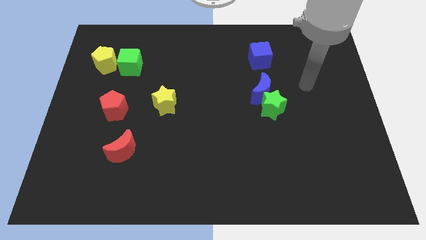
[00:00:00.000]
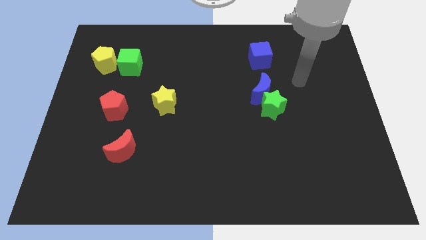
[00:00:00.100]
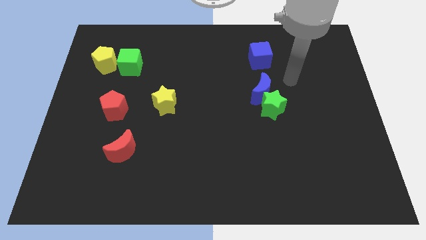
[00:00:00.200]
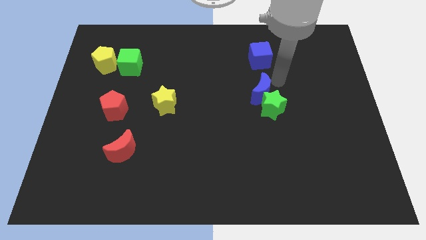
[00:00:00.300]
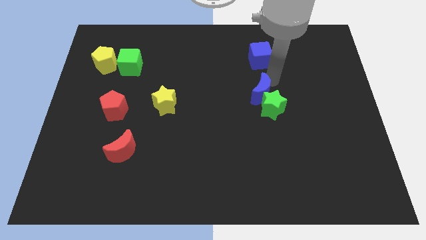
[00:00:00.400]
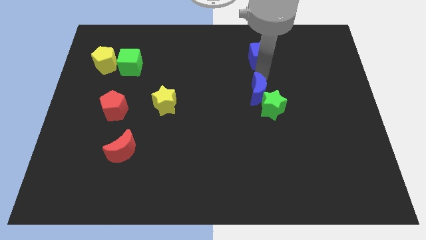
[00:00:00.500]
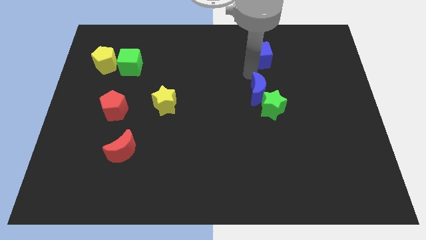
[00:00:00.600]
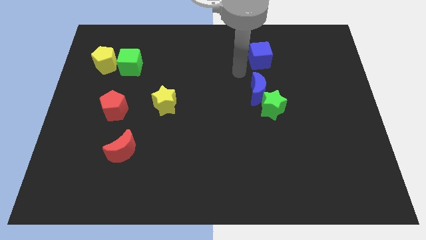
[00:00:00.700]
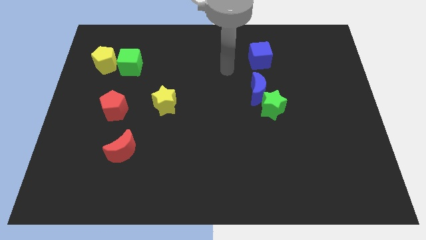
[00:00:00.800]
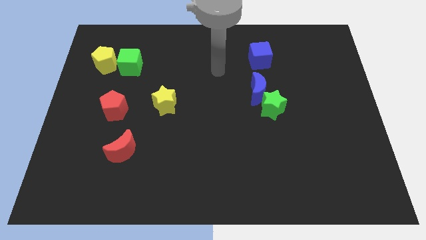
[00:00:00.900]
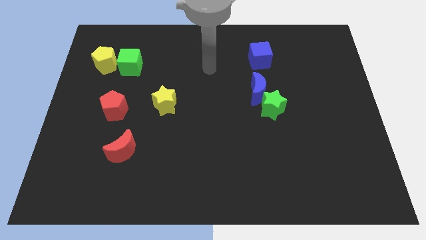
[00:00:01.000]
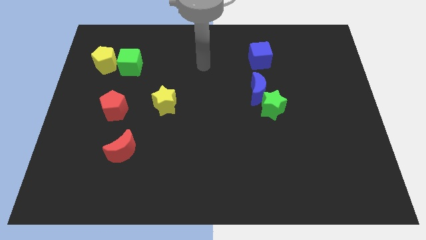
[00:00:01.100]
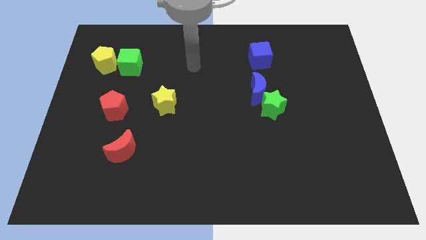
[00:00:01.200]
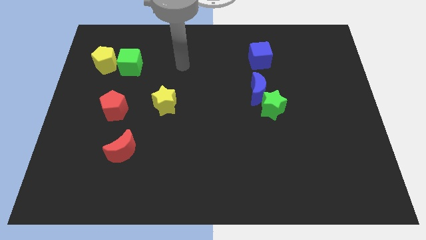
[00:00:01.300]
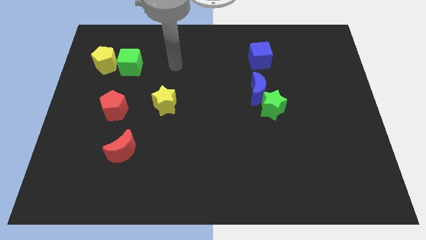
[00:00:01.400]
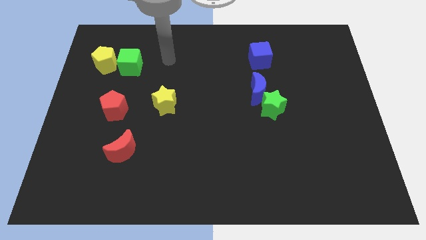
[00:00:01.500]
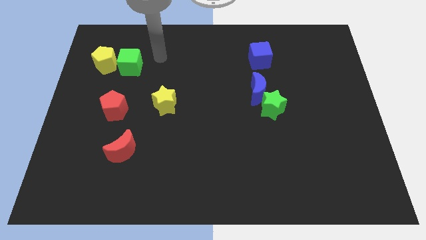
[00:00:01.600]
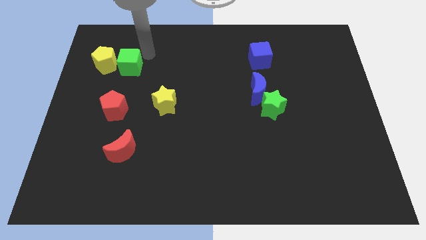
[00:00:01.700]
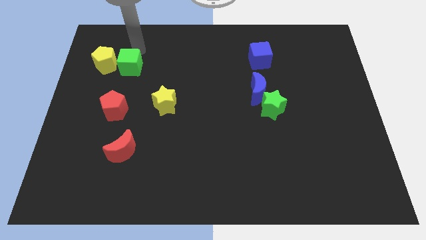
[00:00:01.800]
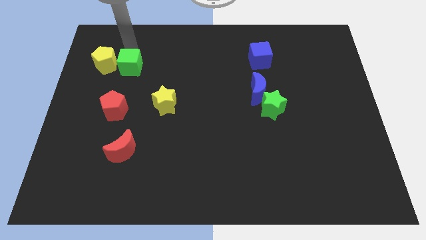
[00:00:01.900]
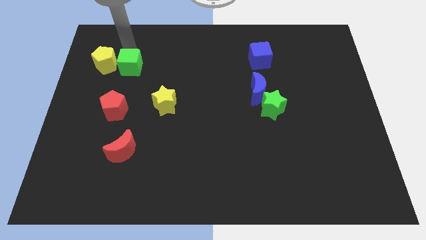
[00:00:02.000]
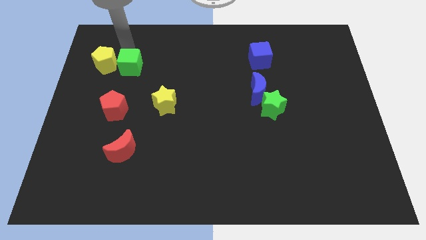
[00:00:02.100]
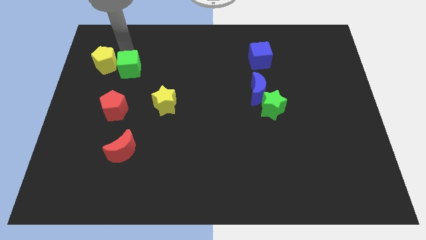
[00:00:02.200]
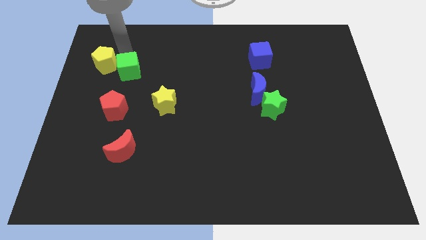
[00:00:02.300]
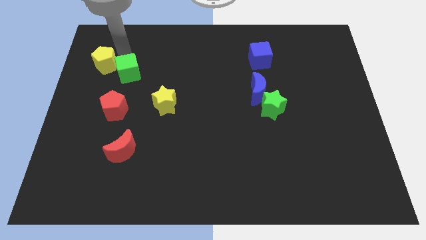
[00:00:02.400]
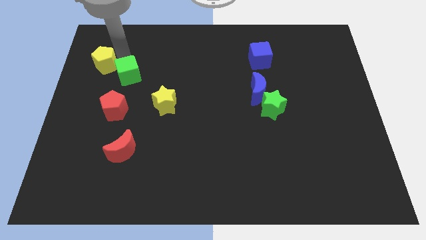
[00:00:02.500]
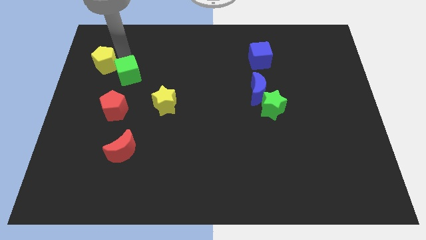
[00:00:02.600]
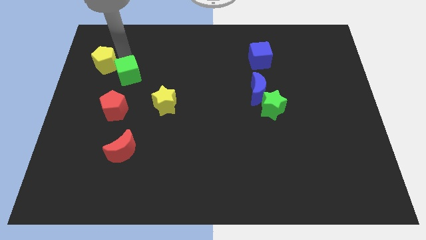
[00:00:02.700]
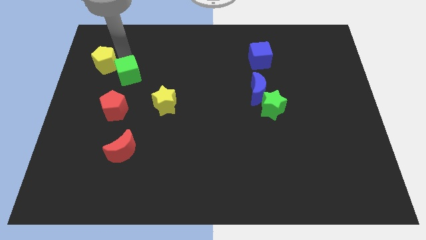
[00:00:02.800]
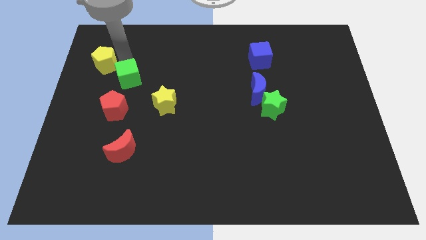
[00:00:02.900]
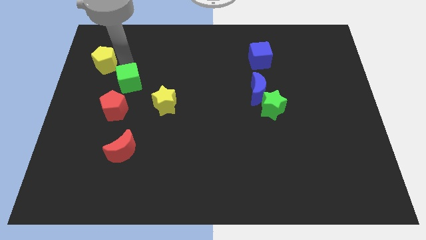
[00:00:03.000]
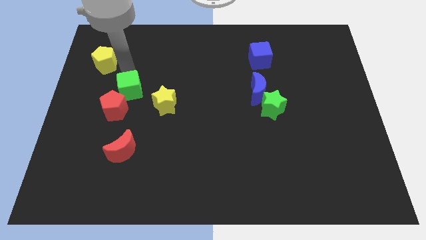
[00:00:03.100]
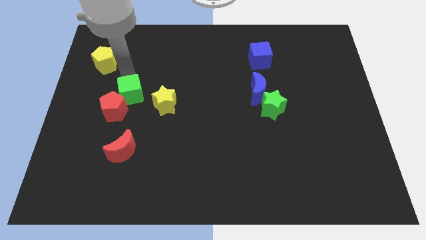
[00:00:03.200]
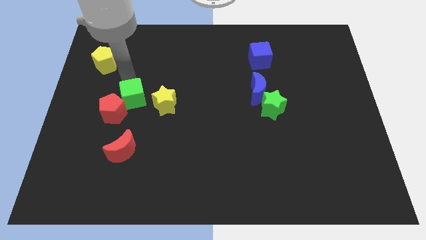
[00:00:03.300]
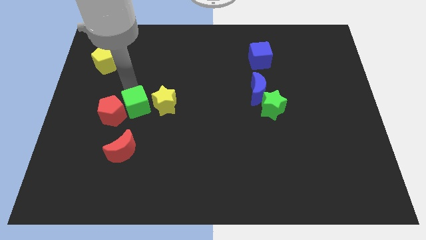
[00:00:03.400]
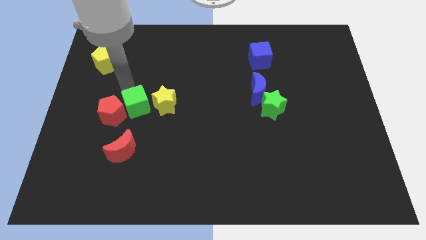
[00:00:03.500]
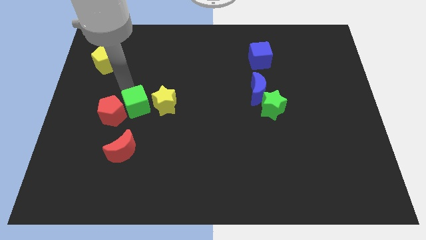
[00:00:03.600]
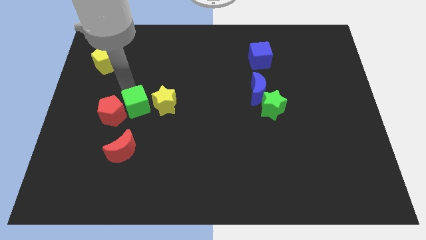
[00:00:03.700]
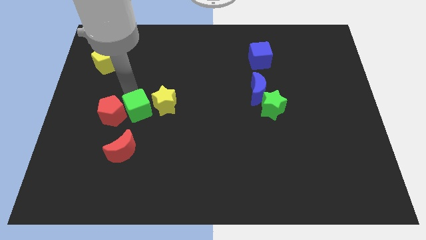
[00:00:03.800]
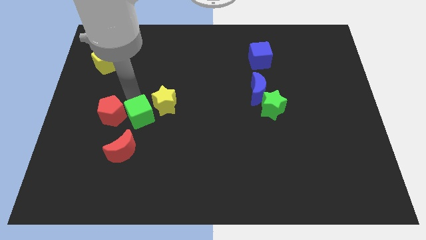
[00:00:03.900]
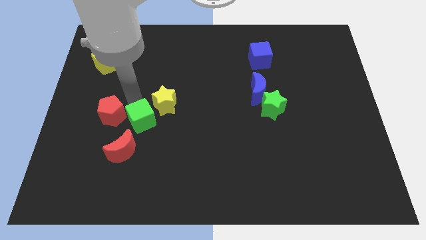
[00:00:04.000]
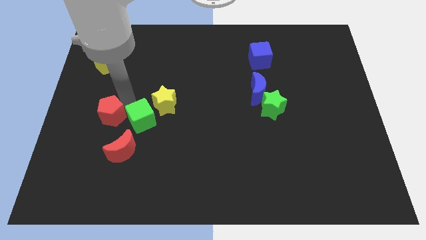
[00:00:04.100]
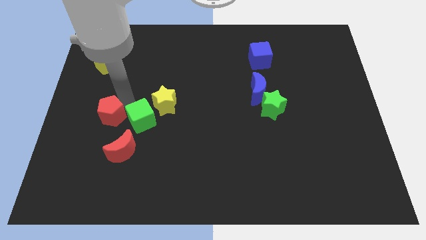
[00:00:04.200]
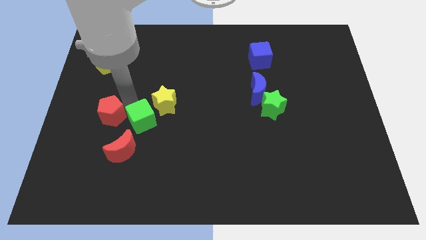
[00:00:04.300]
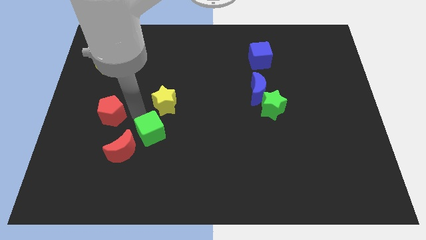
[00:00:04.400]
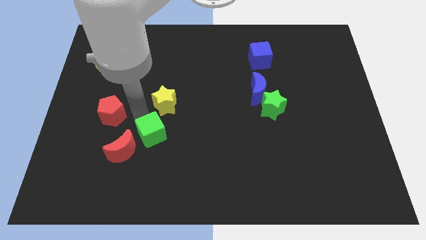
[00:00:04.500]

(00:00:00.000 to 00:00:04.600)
push the green cube to the right of the red moon

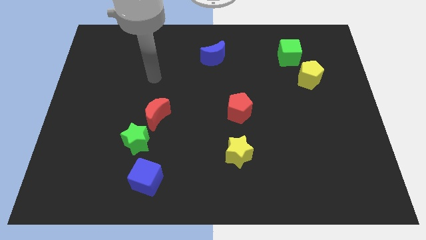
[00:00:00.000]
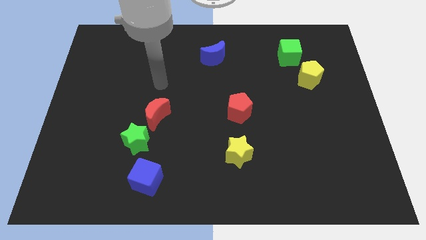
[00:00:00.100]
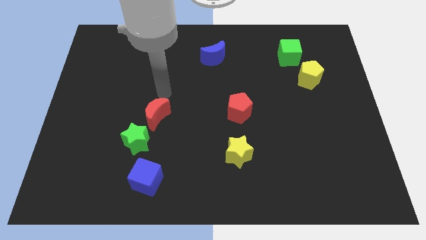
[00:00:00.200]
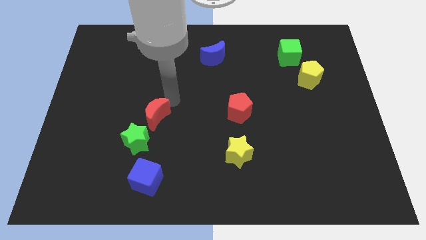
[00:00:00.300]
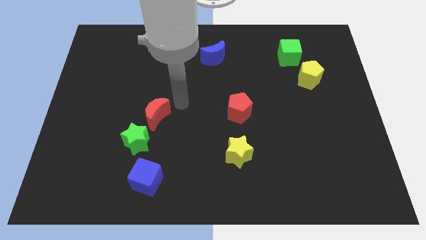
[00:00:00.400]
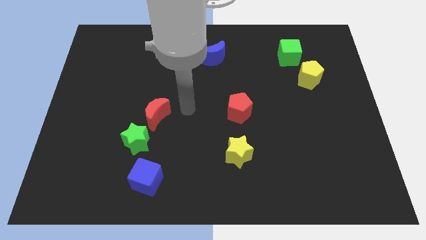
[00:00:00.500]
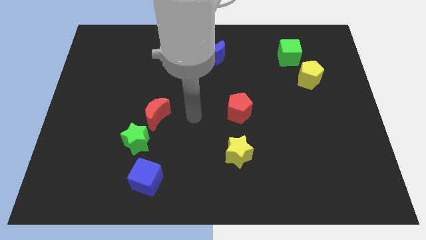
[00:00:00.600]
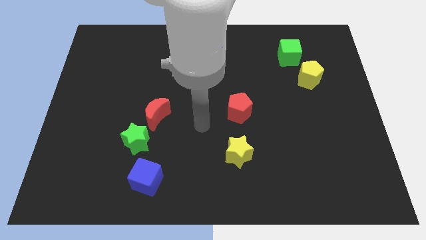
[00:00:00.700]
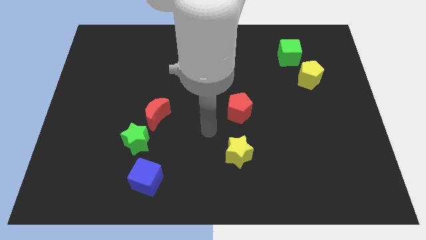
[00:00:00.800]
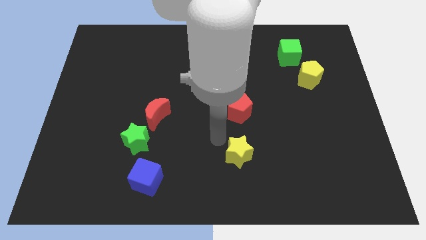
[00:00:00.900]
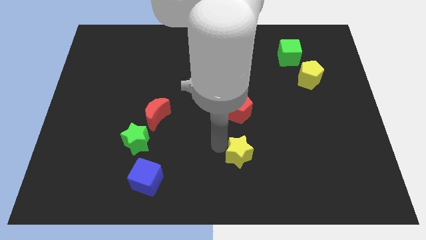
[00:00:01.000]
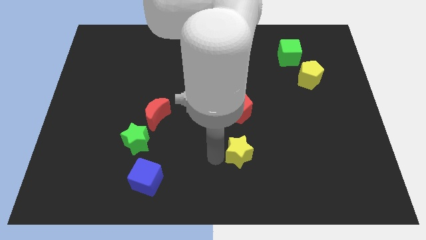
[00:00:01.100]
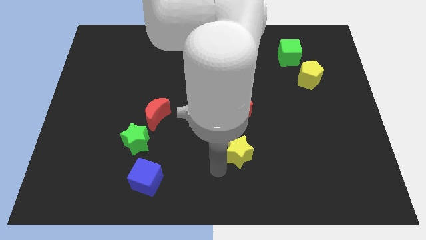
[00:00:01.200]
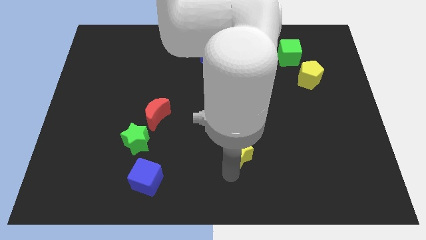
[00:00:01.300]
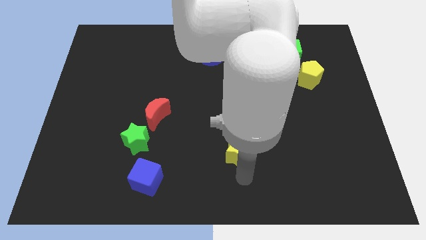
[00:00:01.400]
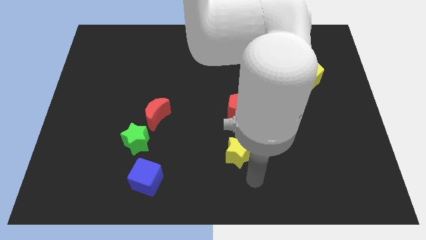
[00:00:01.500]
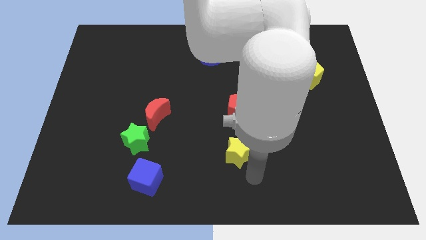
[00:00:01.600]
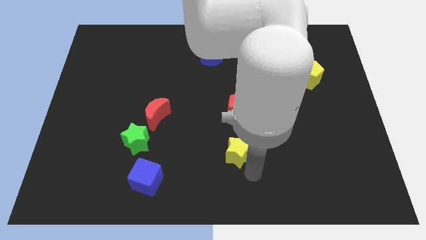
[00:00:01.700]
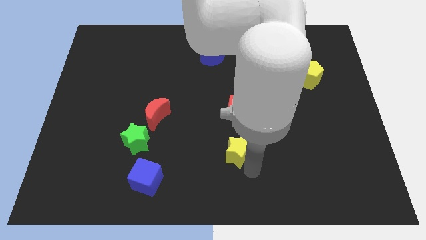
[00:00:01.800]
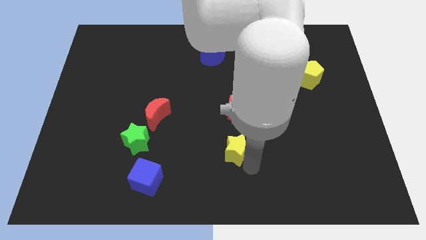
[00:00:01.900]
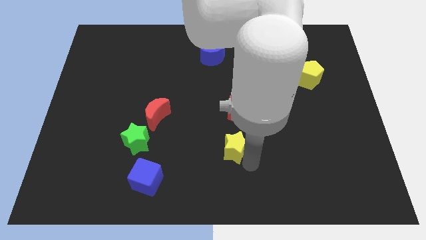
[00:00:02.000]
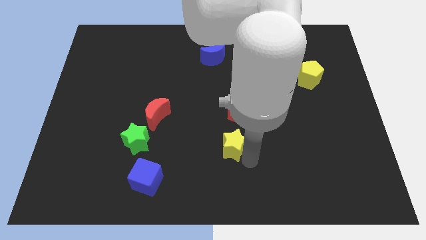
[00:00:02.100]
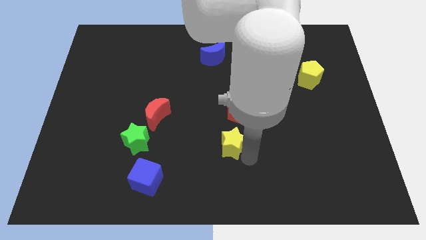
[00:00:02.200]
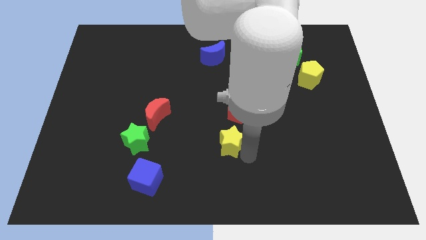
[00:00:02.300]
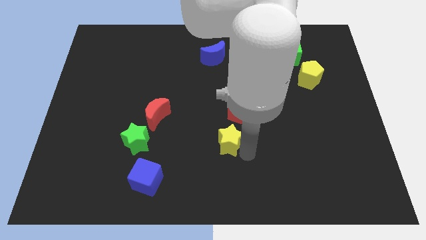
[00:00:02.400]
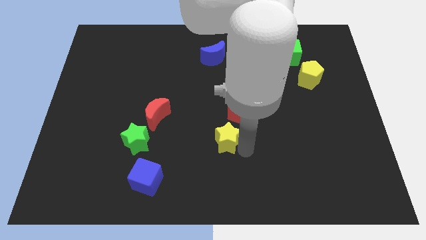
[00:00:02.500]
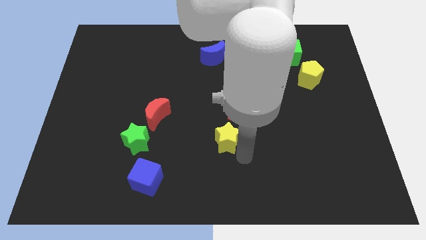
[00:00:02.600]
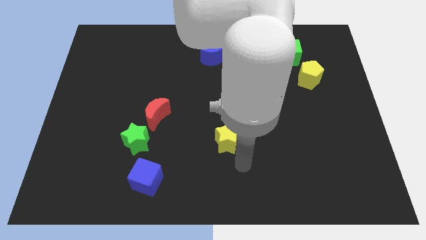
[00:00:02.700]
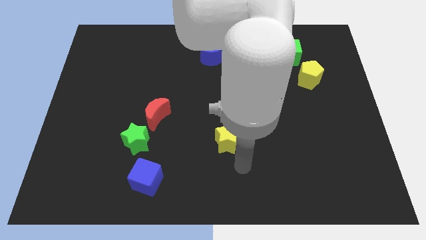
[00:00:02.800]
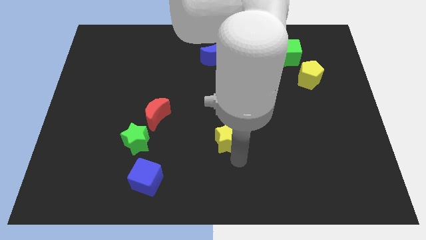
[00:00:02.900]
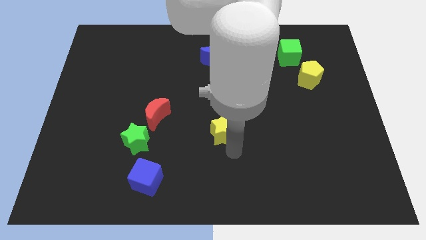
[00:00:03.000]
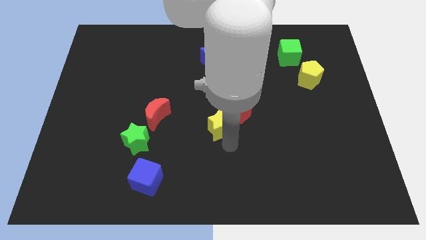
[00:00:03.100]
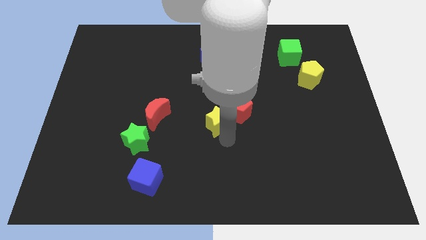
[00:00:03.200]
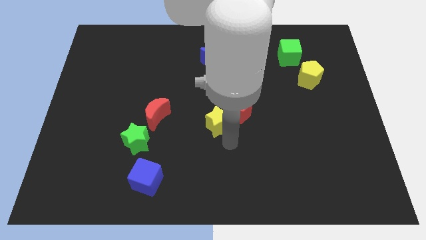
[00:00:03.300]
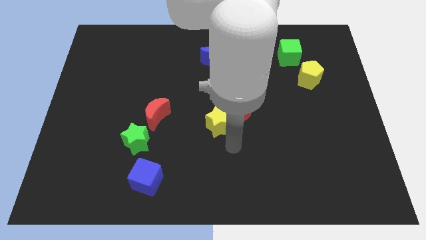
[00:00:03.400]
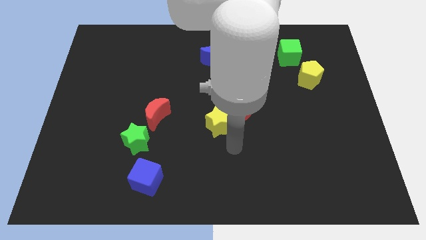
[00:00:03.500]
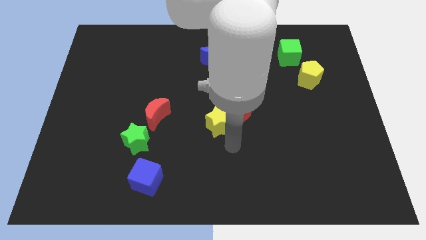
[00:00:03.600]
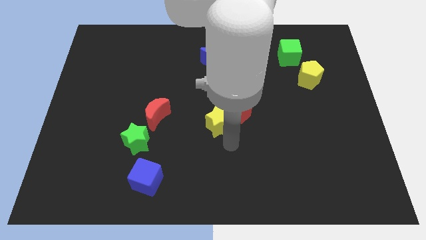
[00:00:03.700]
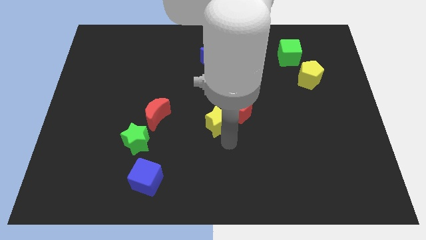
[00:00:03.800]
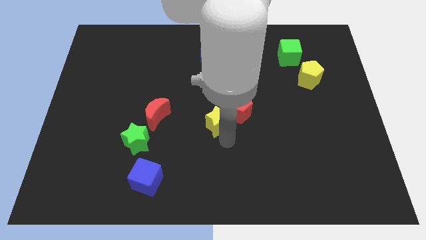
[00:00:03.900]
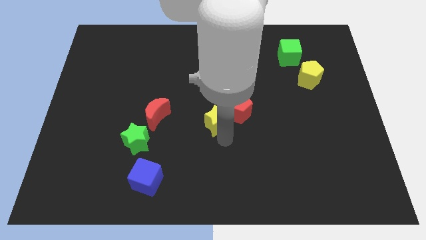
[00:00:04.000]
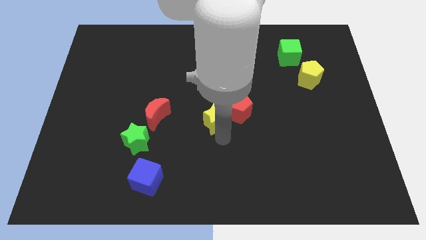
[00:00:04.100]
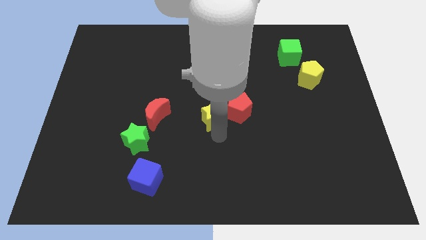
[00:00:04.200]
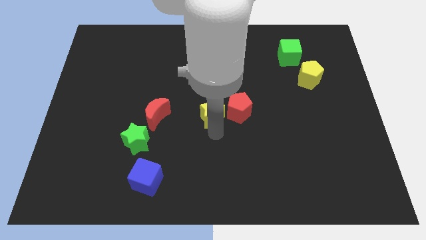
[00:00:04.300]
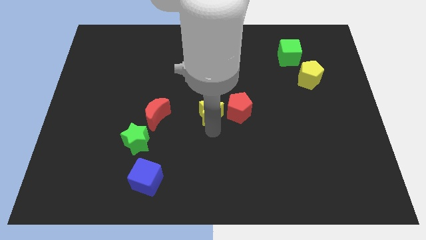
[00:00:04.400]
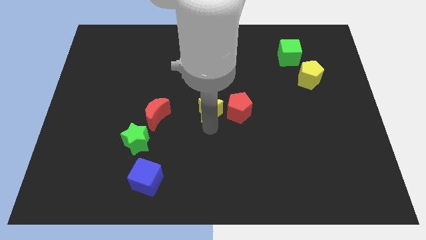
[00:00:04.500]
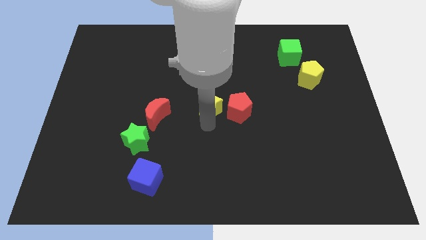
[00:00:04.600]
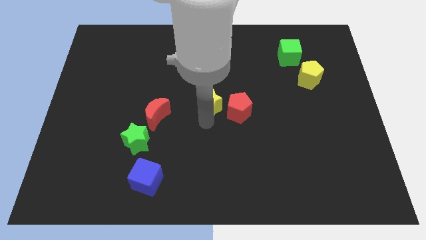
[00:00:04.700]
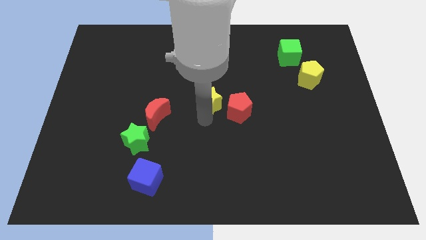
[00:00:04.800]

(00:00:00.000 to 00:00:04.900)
move the yellow star to the bottom of the blue moon
